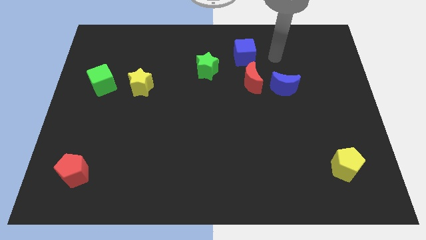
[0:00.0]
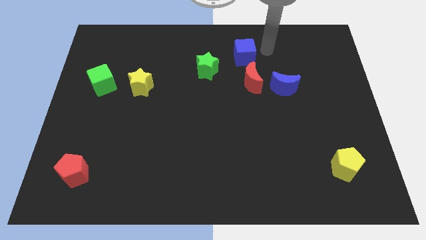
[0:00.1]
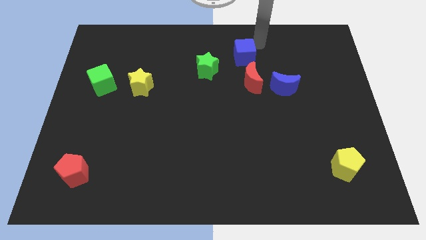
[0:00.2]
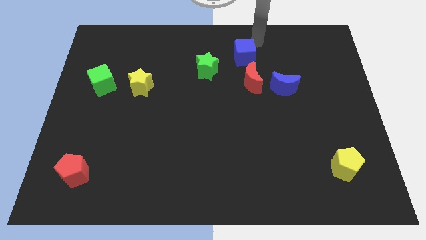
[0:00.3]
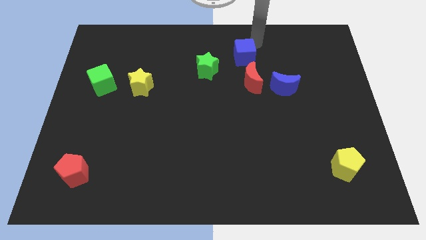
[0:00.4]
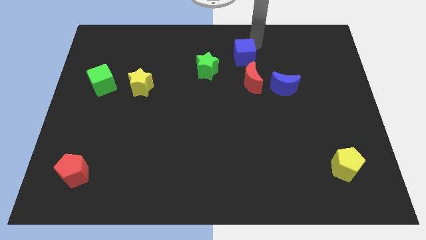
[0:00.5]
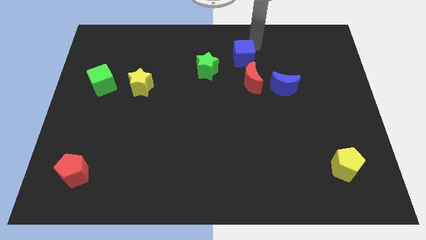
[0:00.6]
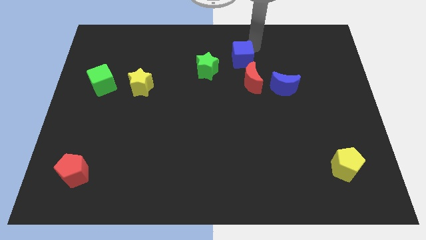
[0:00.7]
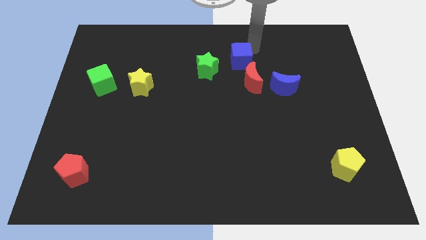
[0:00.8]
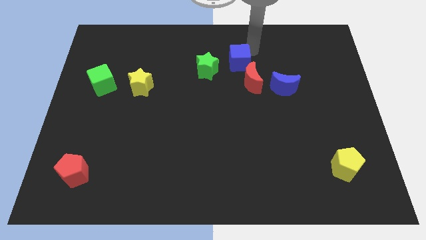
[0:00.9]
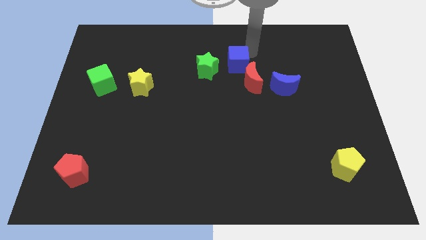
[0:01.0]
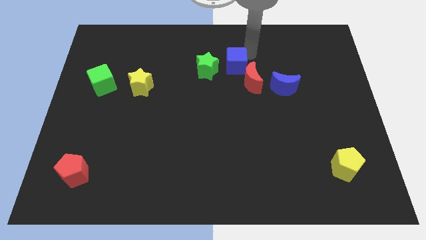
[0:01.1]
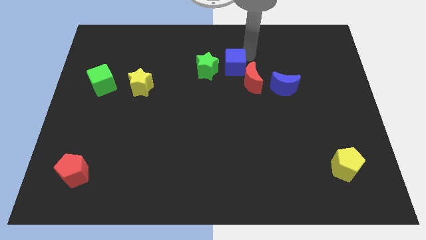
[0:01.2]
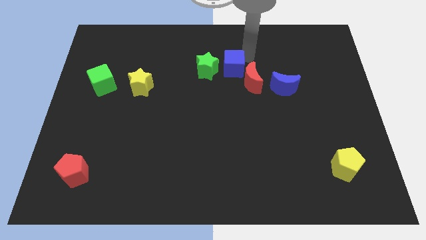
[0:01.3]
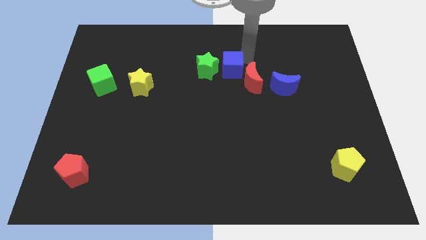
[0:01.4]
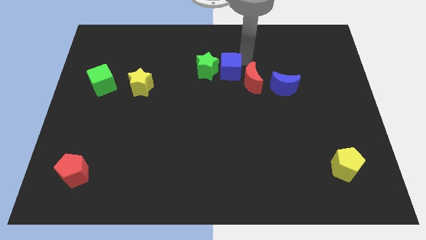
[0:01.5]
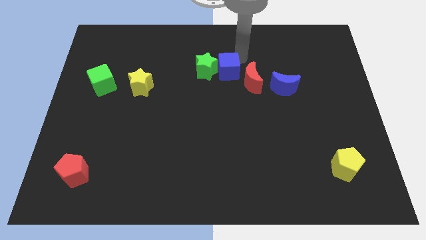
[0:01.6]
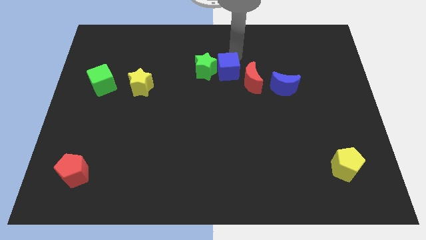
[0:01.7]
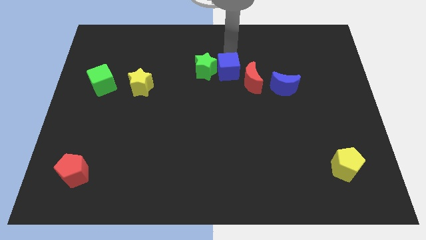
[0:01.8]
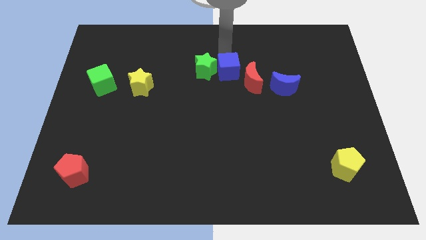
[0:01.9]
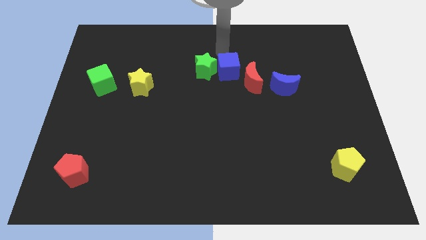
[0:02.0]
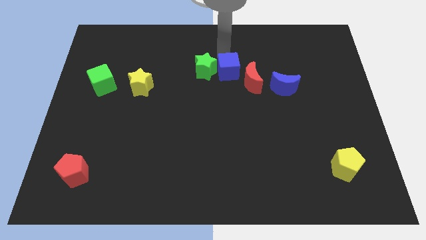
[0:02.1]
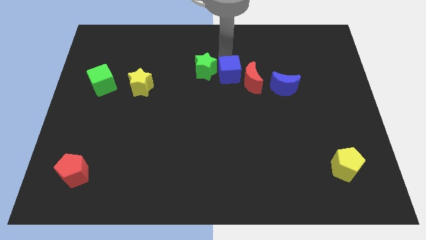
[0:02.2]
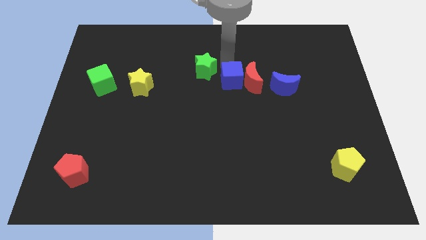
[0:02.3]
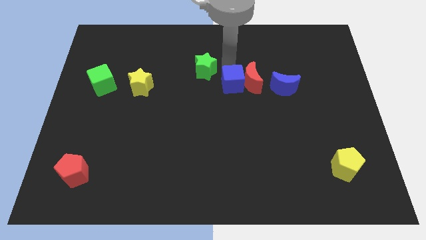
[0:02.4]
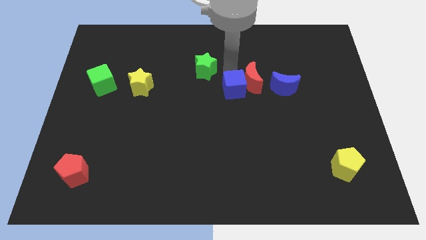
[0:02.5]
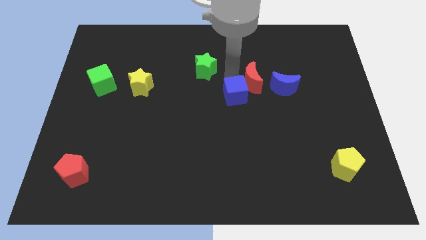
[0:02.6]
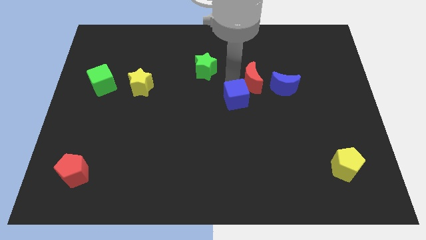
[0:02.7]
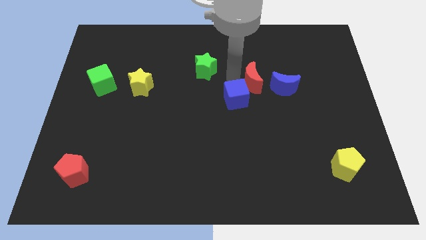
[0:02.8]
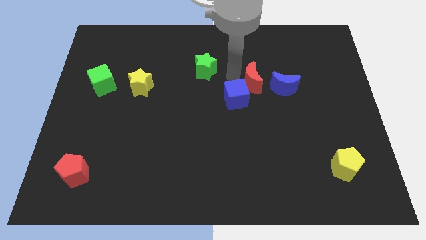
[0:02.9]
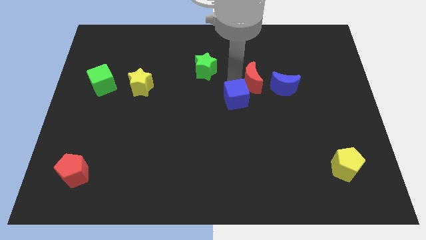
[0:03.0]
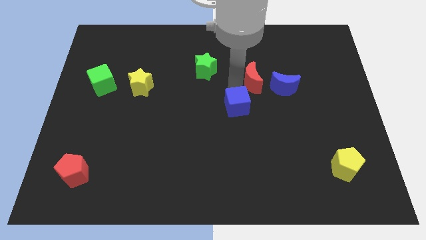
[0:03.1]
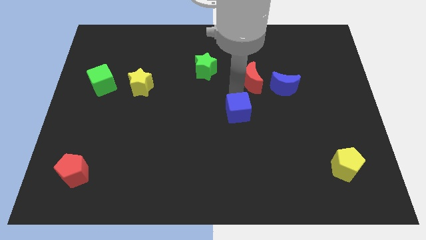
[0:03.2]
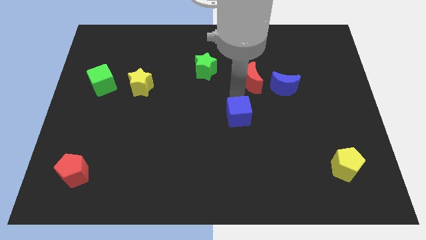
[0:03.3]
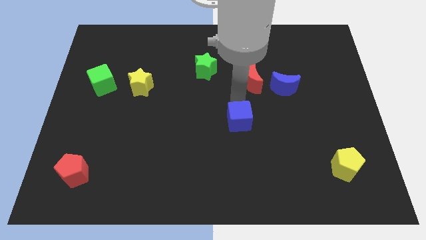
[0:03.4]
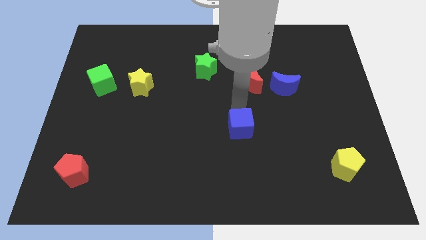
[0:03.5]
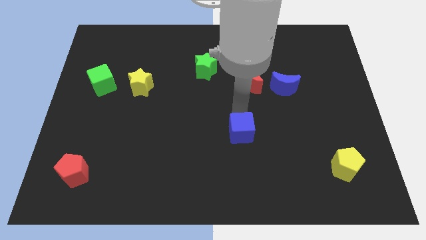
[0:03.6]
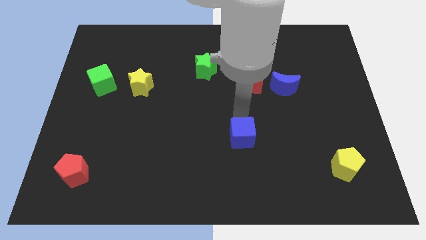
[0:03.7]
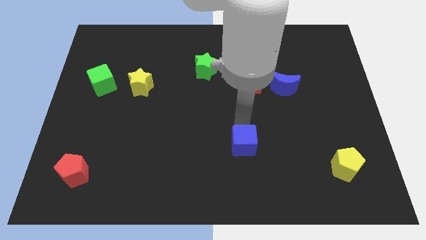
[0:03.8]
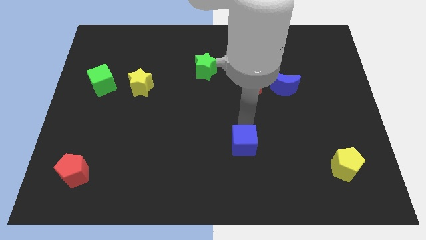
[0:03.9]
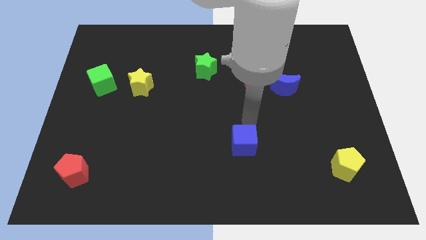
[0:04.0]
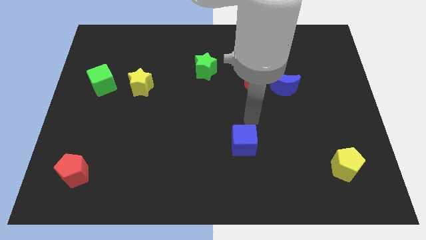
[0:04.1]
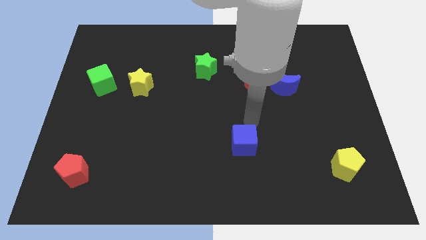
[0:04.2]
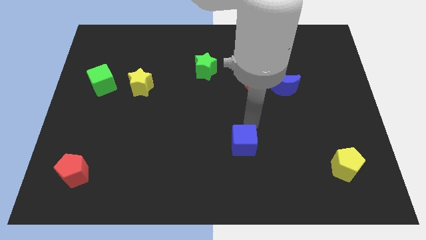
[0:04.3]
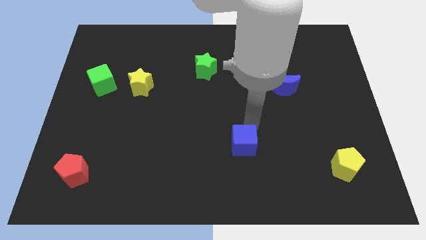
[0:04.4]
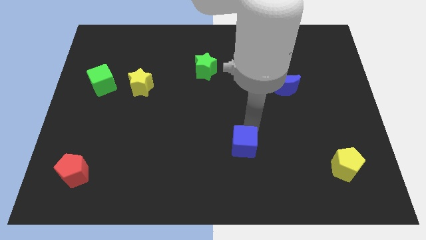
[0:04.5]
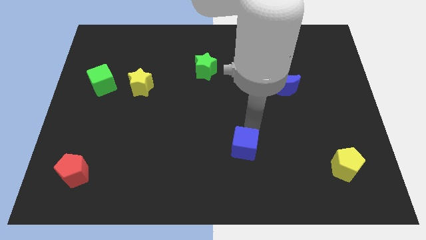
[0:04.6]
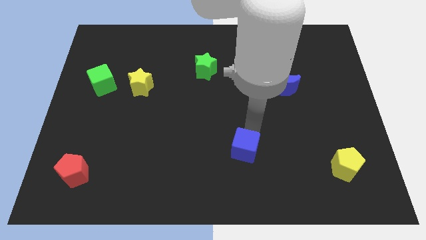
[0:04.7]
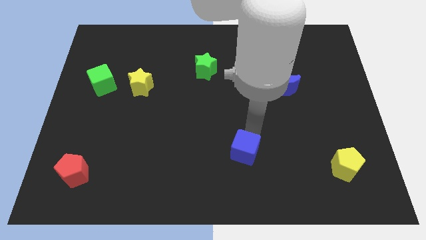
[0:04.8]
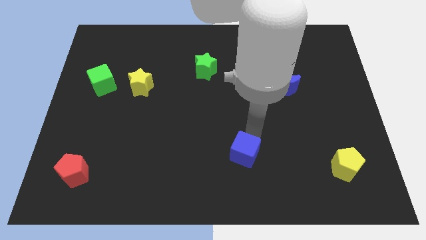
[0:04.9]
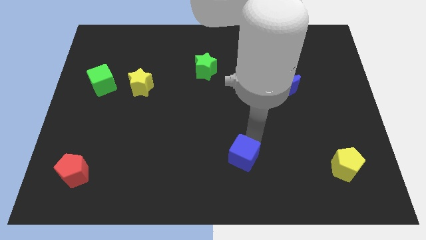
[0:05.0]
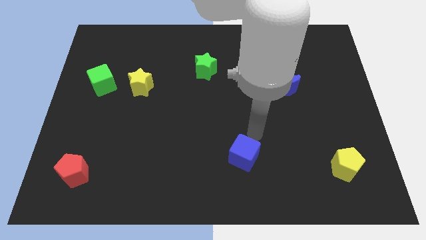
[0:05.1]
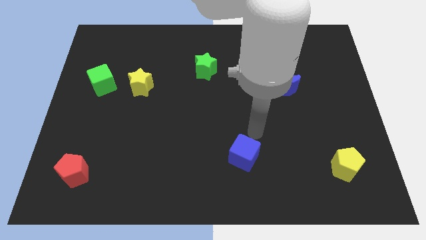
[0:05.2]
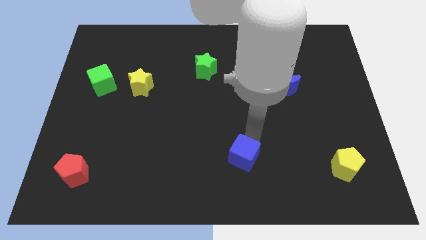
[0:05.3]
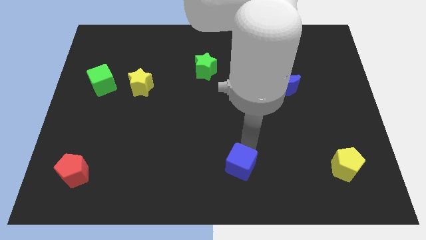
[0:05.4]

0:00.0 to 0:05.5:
put the blue cube to the bottom

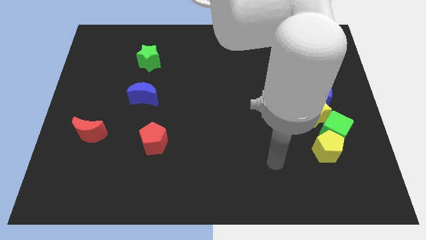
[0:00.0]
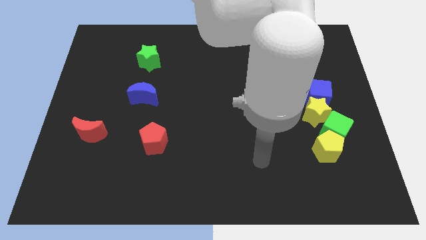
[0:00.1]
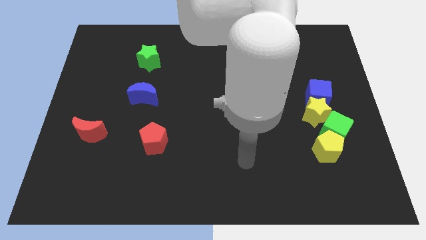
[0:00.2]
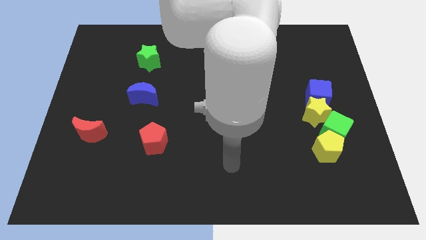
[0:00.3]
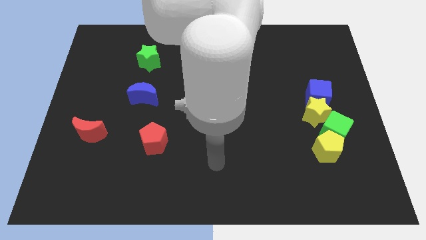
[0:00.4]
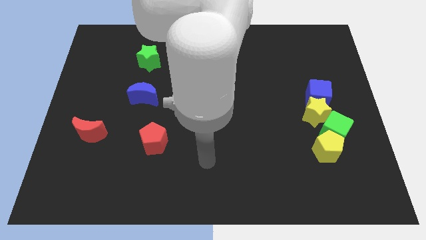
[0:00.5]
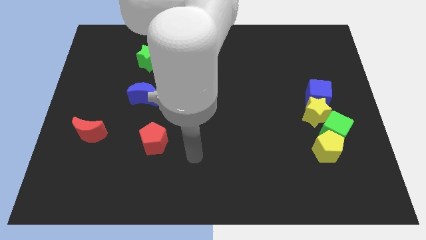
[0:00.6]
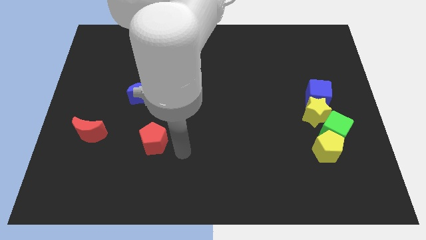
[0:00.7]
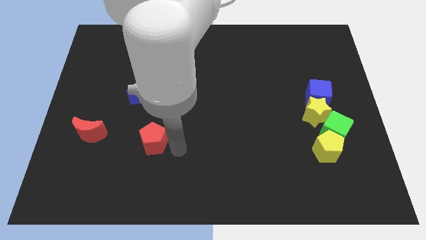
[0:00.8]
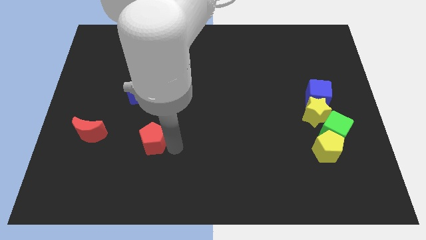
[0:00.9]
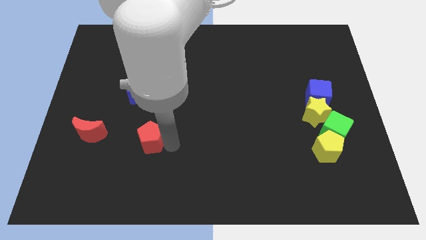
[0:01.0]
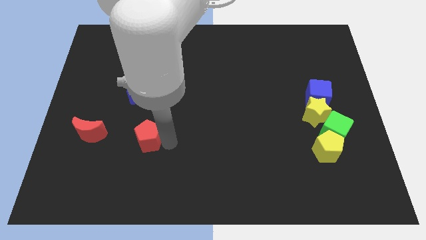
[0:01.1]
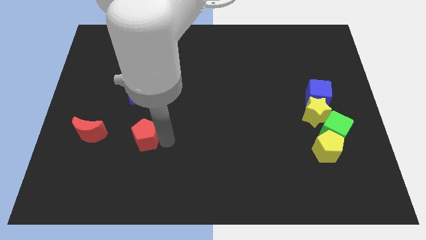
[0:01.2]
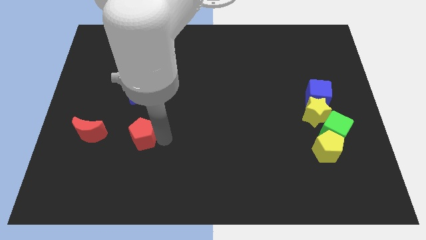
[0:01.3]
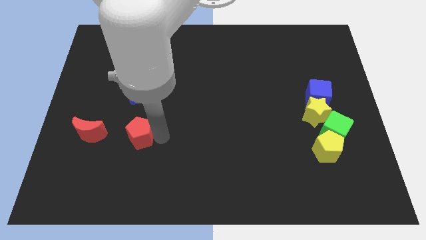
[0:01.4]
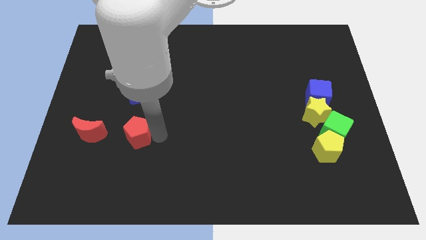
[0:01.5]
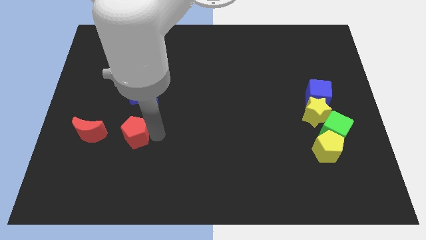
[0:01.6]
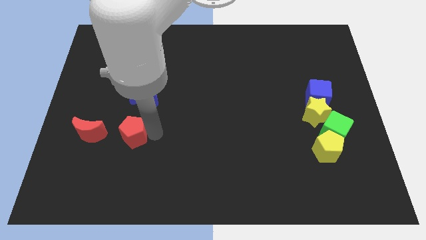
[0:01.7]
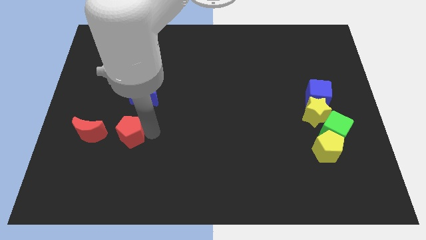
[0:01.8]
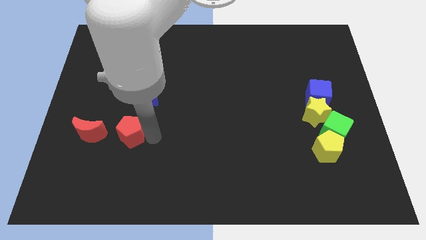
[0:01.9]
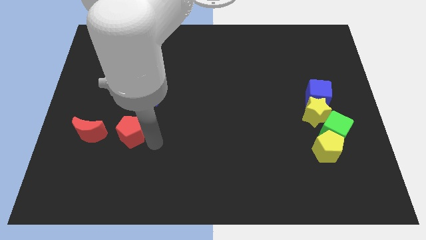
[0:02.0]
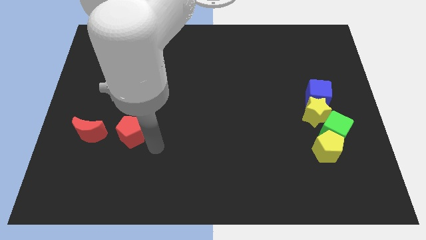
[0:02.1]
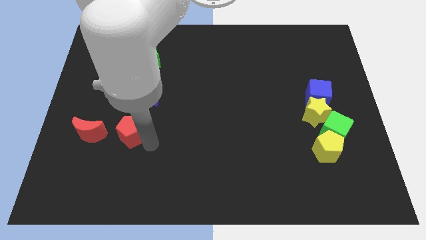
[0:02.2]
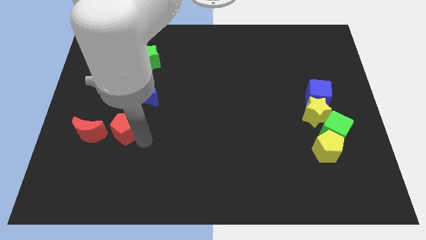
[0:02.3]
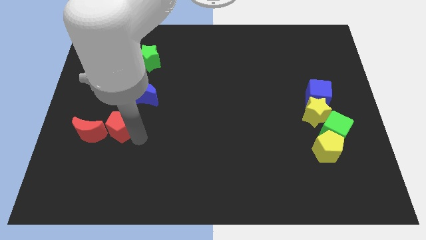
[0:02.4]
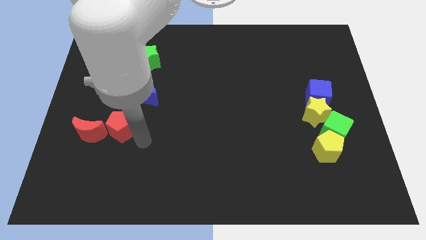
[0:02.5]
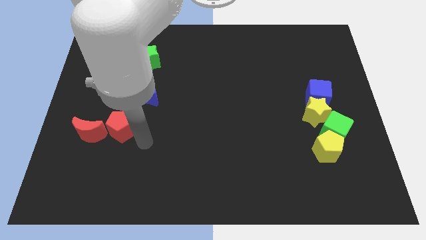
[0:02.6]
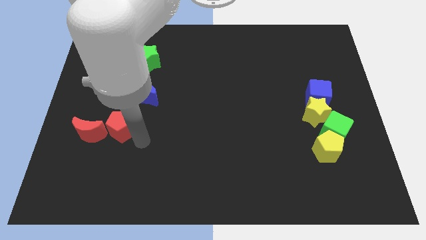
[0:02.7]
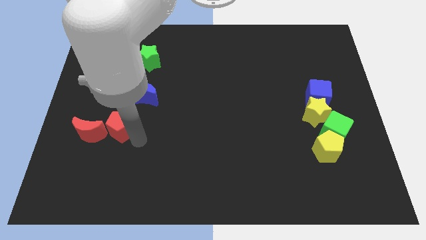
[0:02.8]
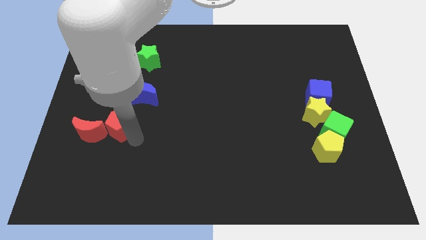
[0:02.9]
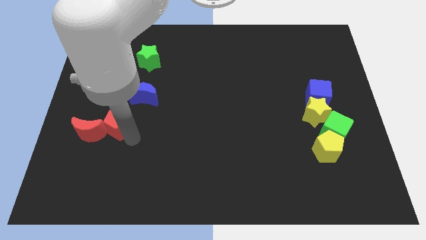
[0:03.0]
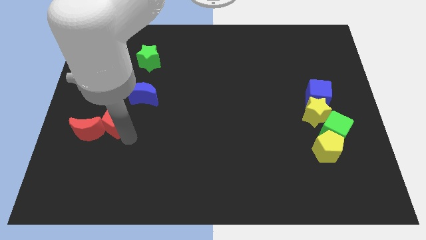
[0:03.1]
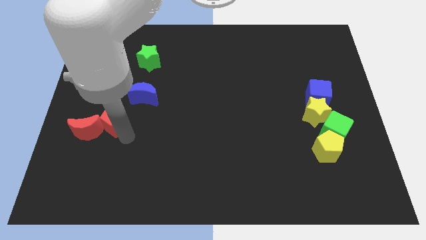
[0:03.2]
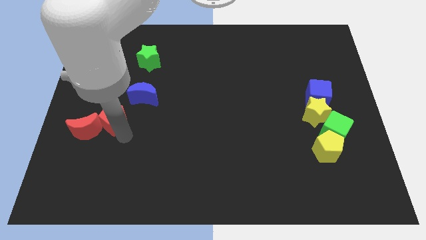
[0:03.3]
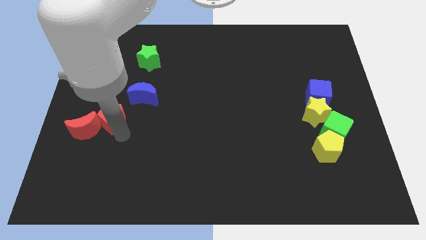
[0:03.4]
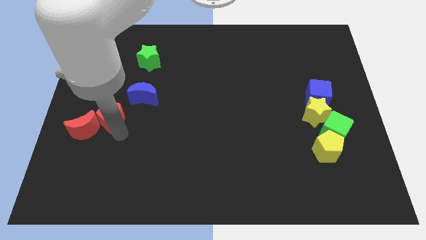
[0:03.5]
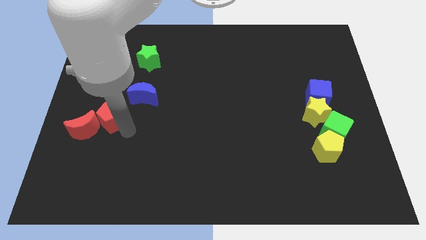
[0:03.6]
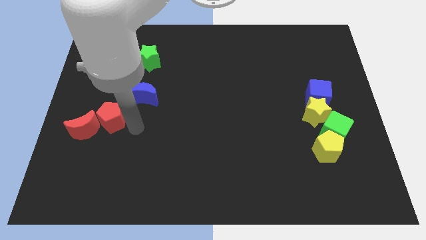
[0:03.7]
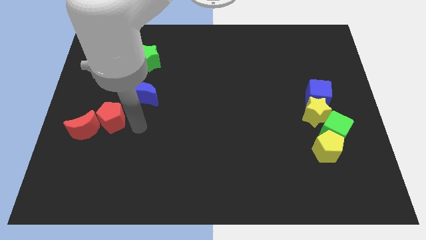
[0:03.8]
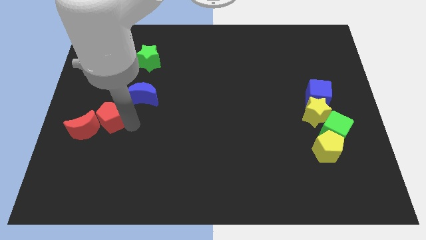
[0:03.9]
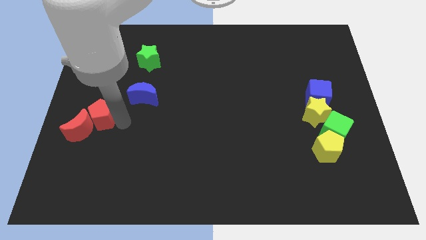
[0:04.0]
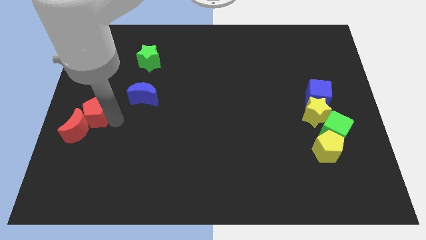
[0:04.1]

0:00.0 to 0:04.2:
move the red pentagon to the left side of the board
